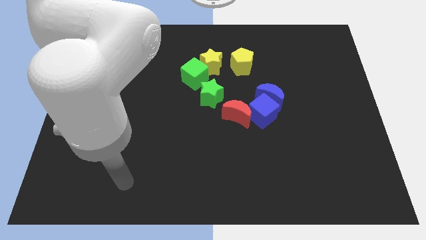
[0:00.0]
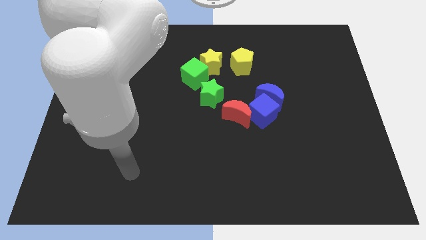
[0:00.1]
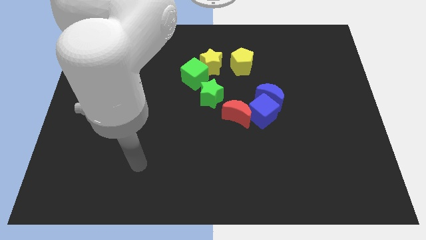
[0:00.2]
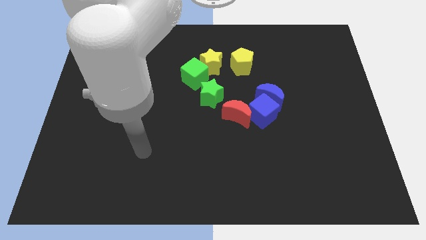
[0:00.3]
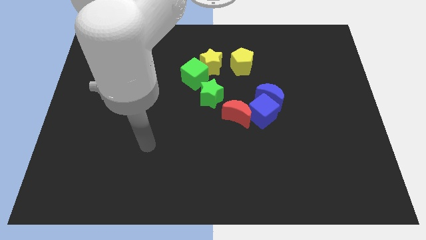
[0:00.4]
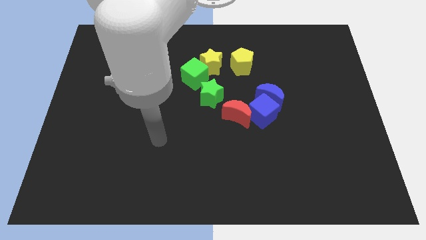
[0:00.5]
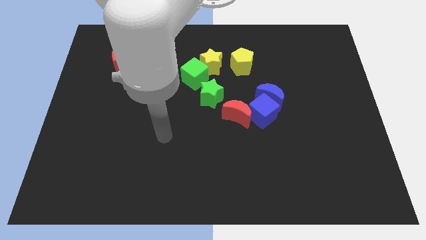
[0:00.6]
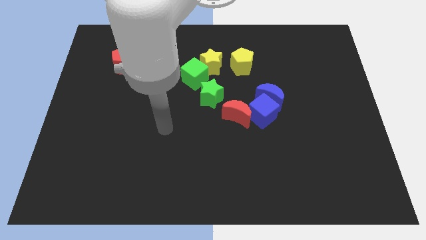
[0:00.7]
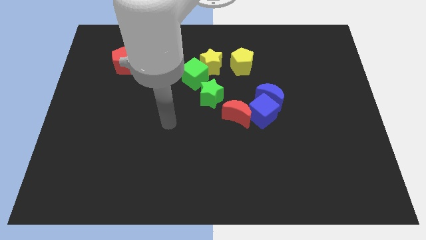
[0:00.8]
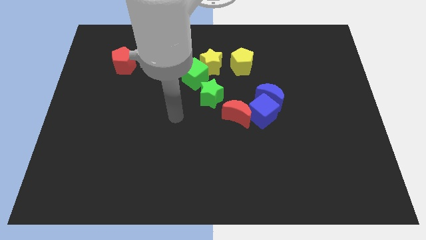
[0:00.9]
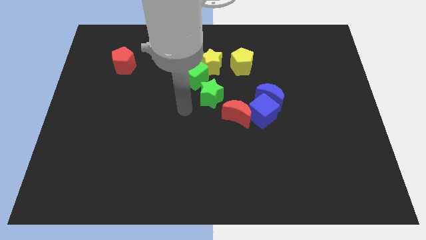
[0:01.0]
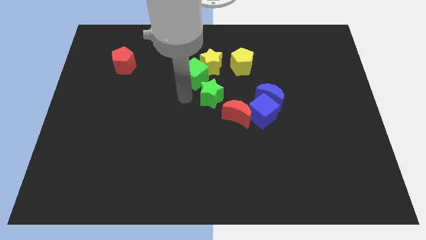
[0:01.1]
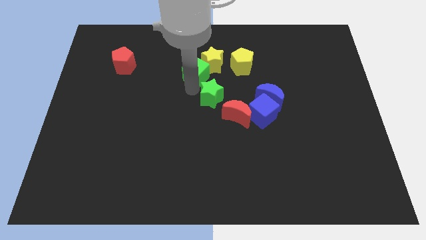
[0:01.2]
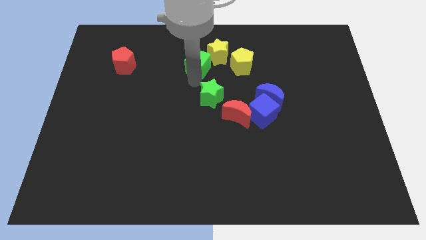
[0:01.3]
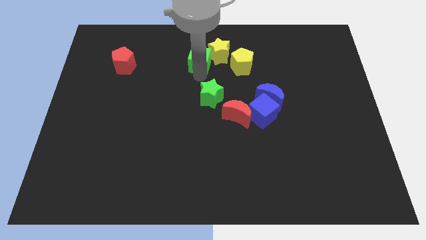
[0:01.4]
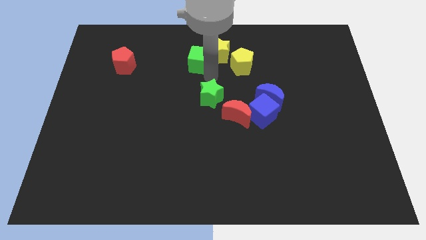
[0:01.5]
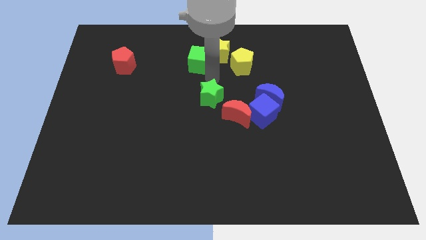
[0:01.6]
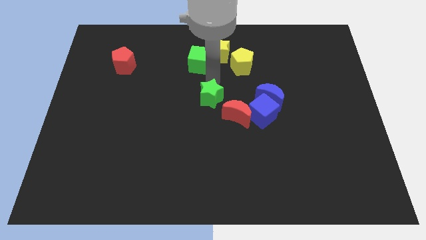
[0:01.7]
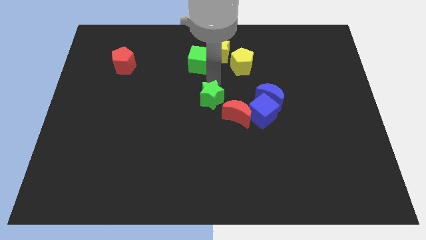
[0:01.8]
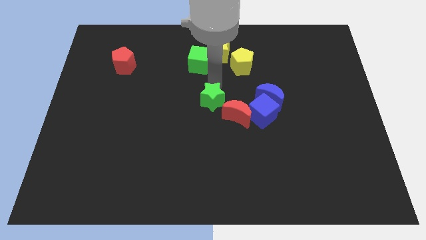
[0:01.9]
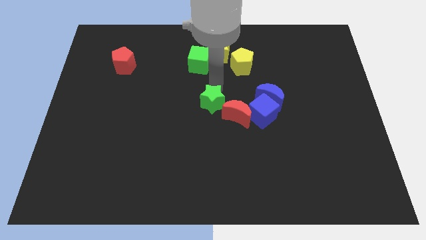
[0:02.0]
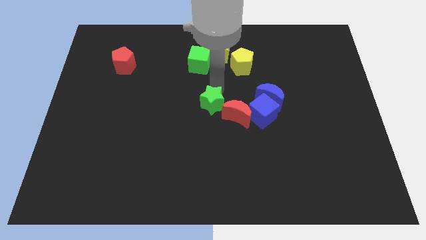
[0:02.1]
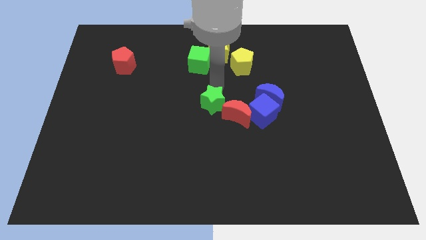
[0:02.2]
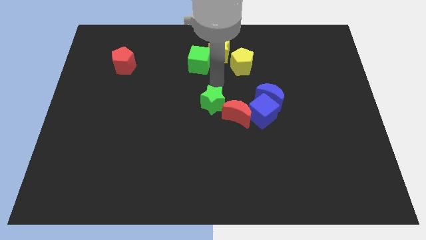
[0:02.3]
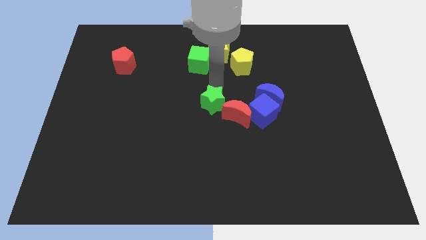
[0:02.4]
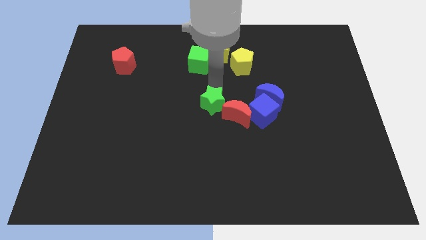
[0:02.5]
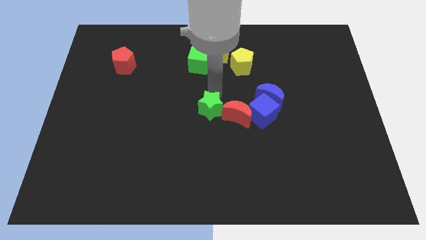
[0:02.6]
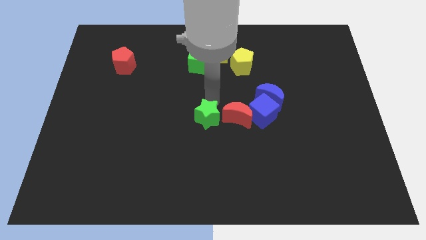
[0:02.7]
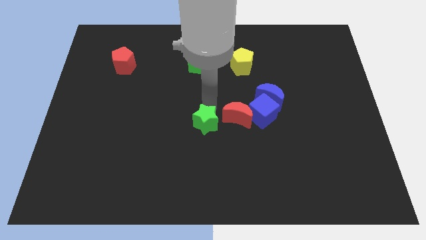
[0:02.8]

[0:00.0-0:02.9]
slightly slide the green star down

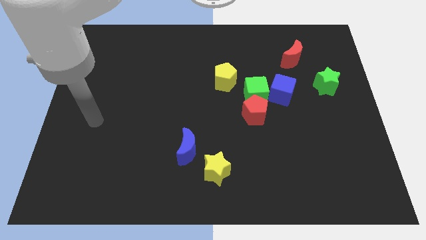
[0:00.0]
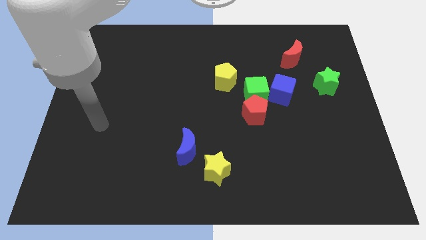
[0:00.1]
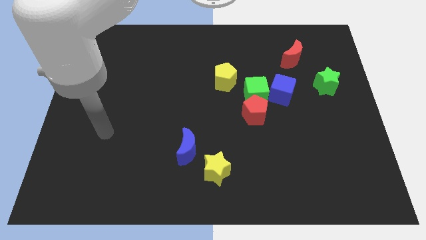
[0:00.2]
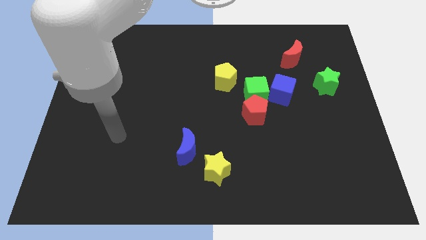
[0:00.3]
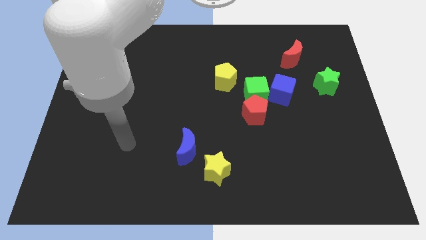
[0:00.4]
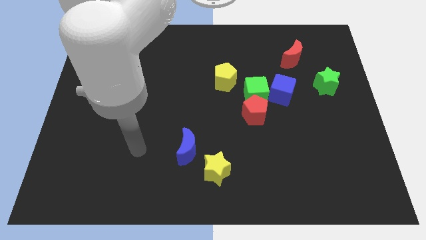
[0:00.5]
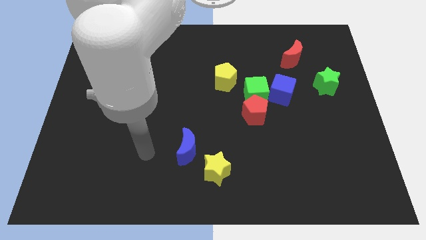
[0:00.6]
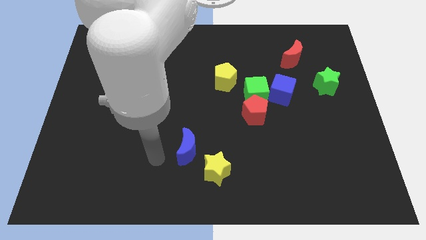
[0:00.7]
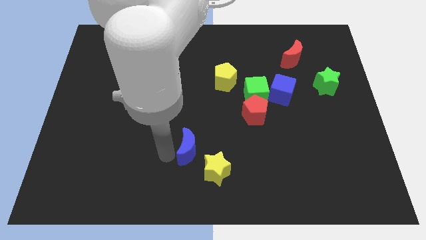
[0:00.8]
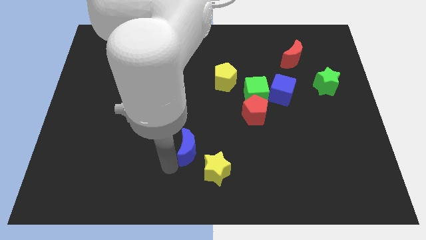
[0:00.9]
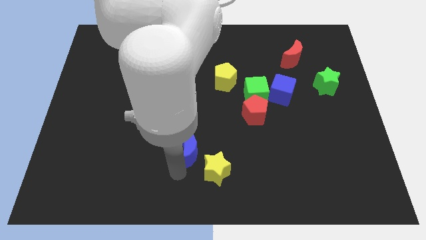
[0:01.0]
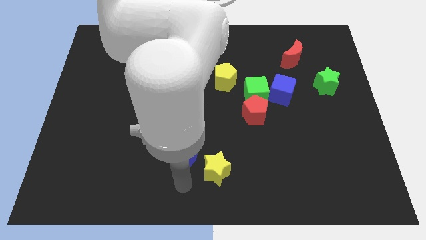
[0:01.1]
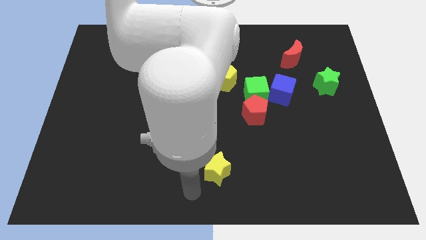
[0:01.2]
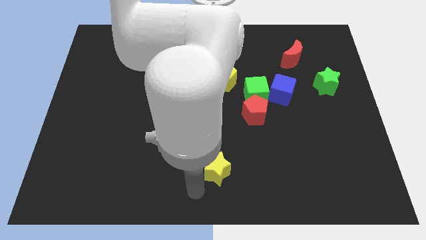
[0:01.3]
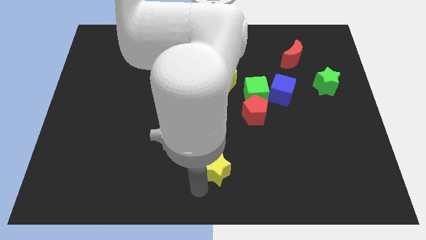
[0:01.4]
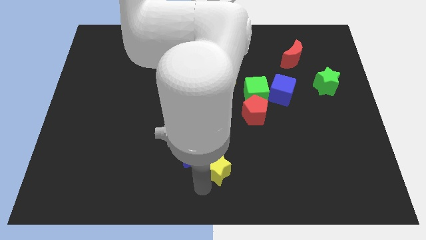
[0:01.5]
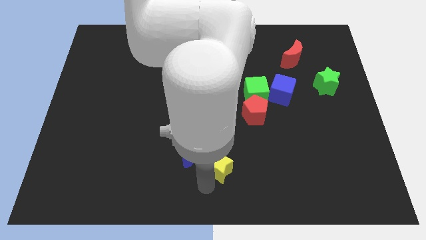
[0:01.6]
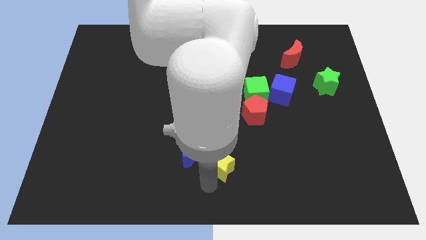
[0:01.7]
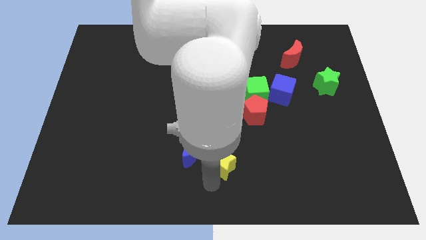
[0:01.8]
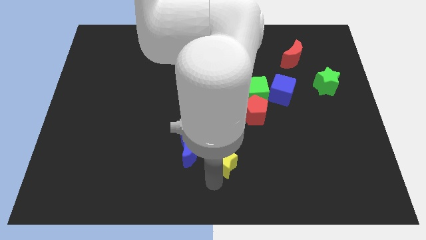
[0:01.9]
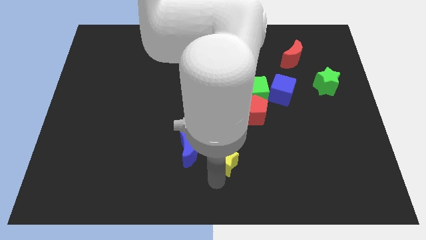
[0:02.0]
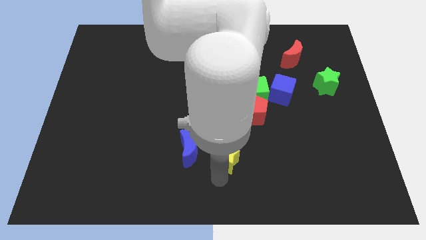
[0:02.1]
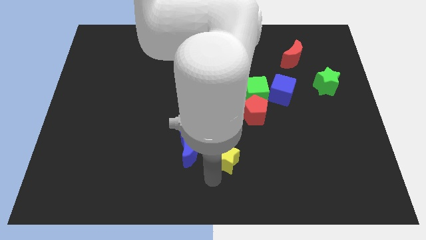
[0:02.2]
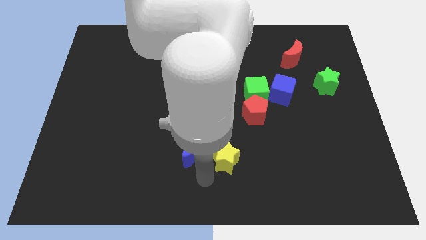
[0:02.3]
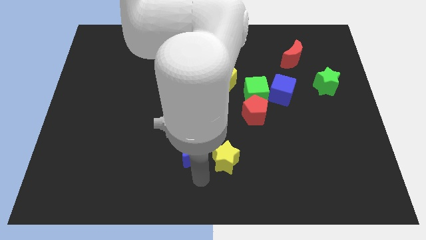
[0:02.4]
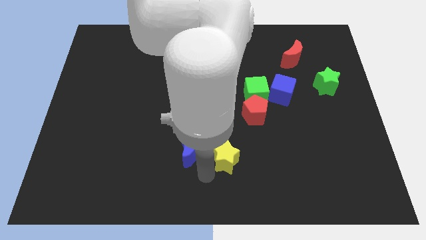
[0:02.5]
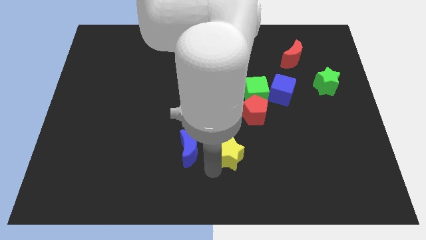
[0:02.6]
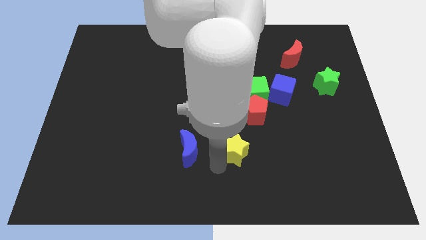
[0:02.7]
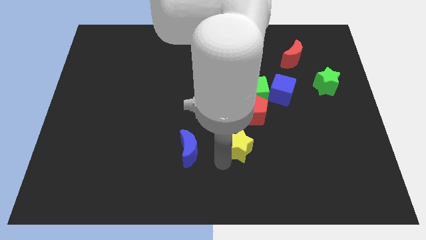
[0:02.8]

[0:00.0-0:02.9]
slightly move the yellow star diagonally up and to the right

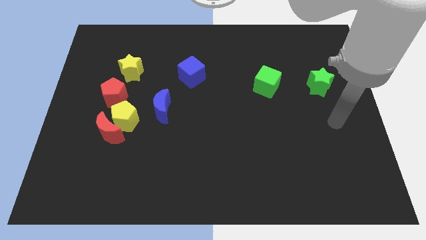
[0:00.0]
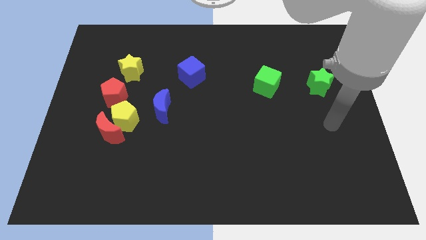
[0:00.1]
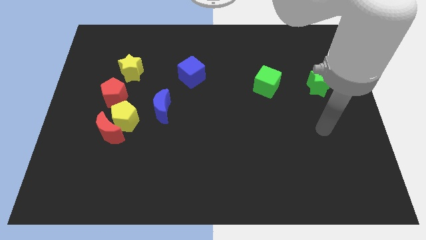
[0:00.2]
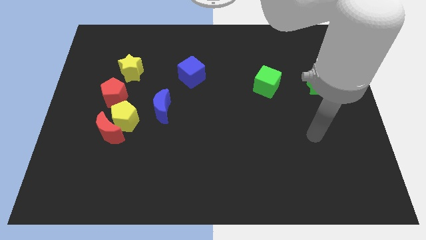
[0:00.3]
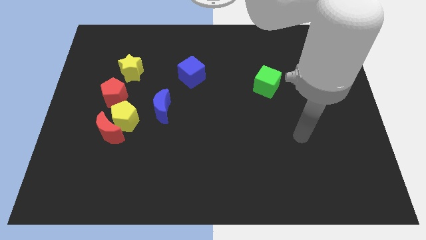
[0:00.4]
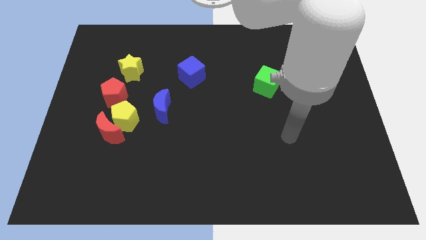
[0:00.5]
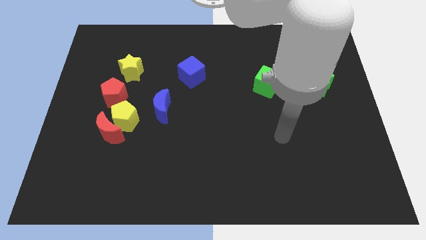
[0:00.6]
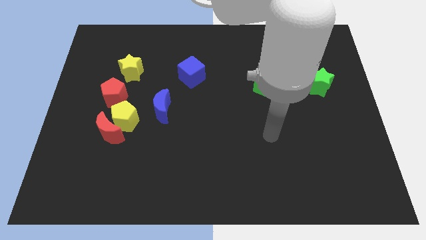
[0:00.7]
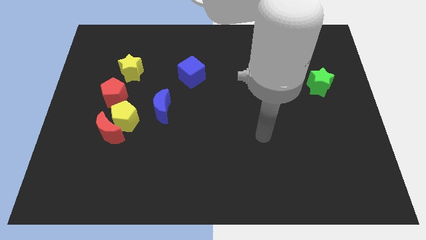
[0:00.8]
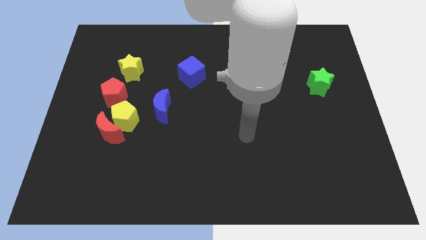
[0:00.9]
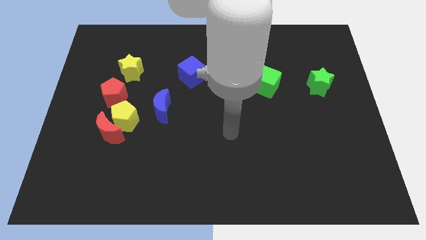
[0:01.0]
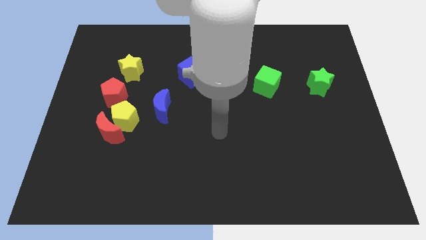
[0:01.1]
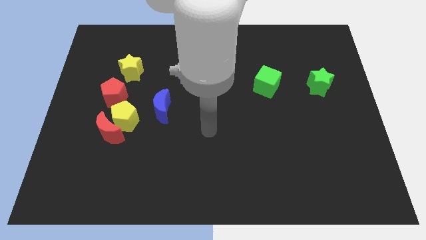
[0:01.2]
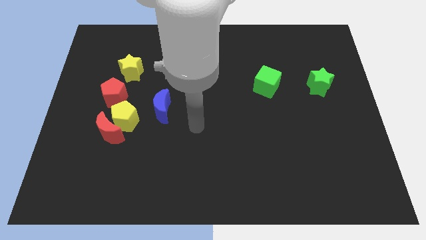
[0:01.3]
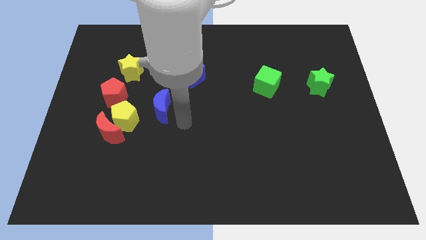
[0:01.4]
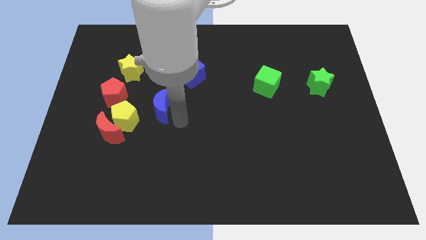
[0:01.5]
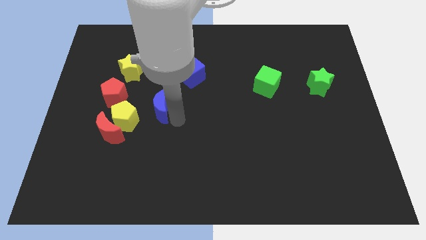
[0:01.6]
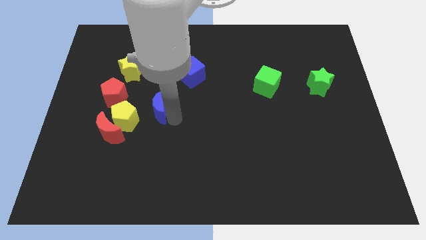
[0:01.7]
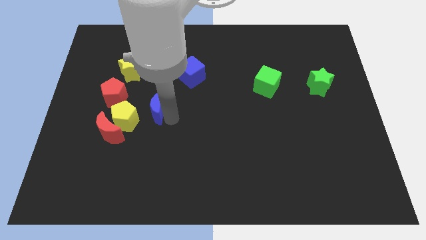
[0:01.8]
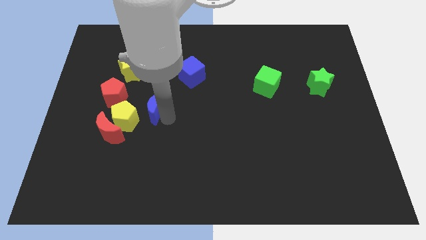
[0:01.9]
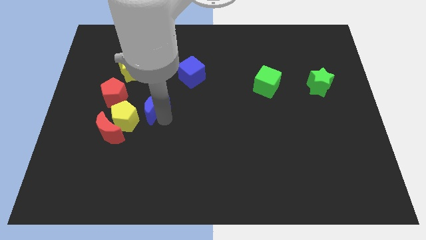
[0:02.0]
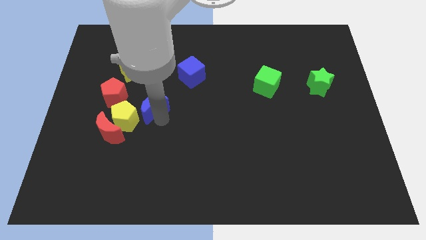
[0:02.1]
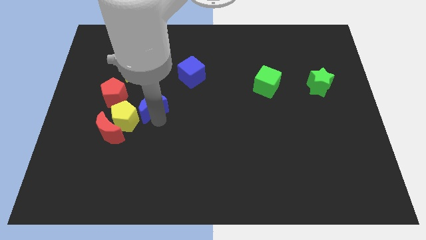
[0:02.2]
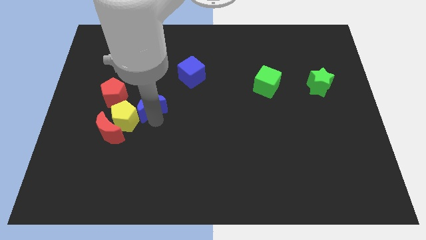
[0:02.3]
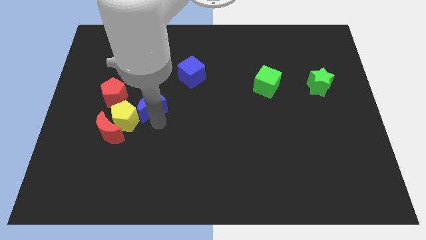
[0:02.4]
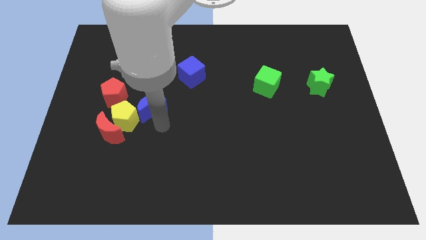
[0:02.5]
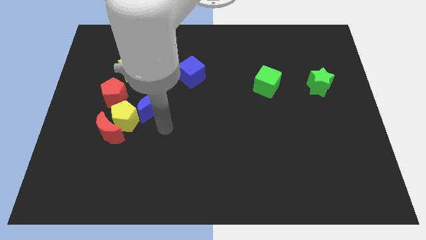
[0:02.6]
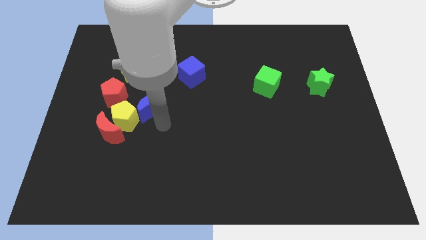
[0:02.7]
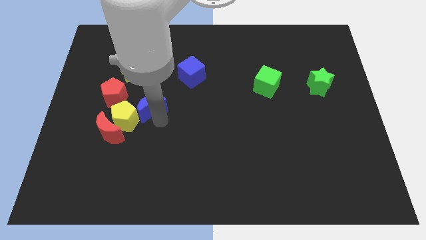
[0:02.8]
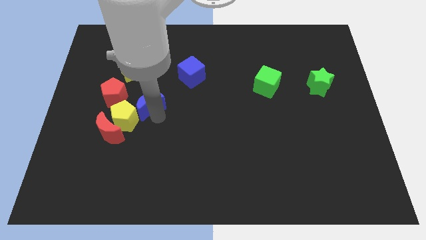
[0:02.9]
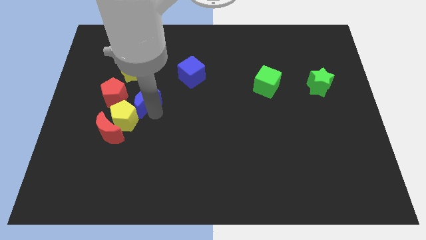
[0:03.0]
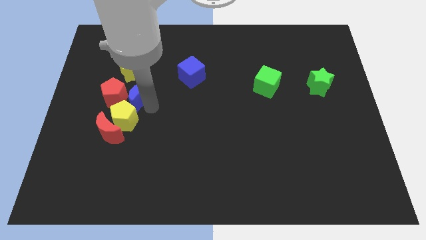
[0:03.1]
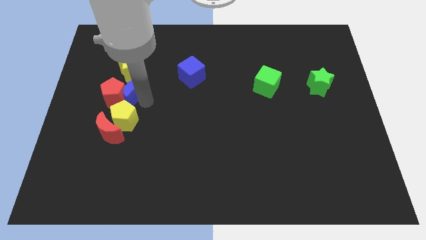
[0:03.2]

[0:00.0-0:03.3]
slightly push the blue moon diagonally up and left
